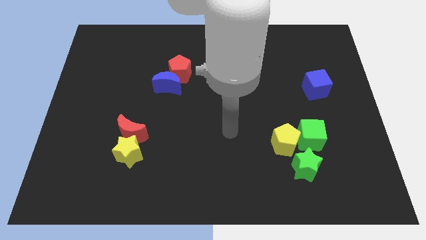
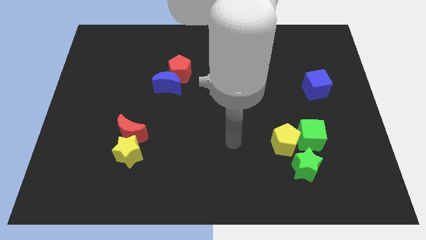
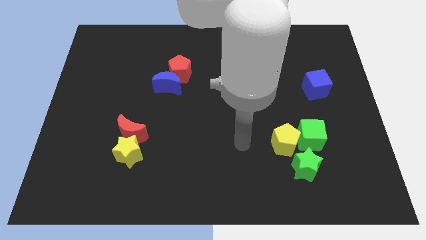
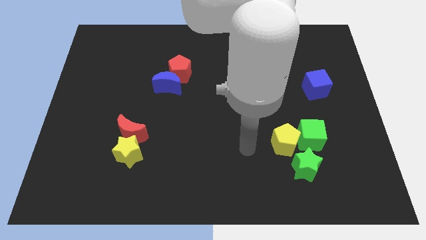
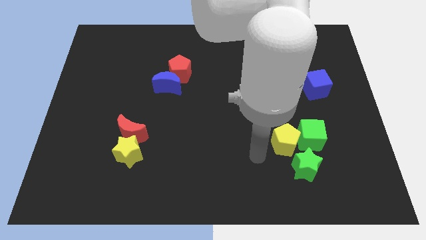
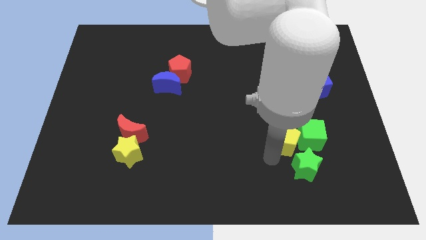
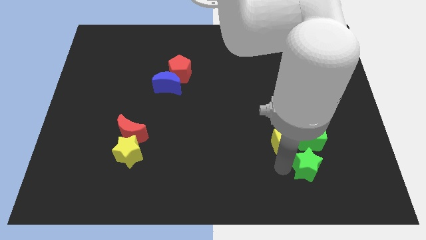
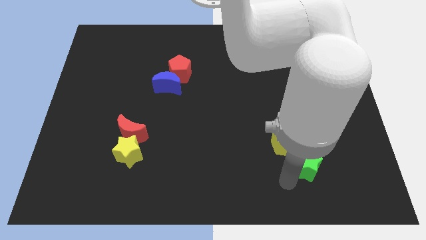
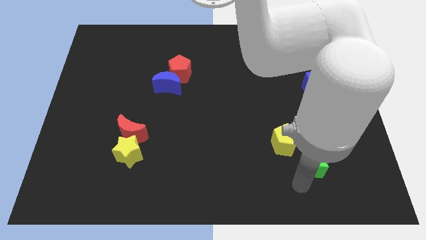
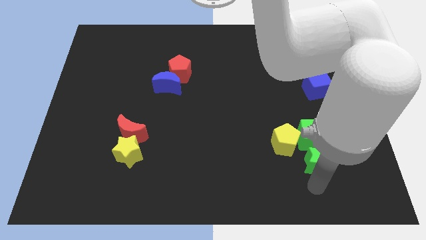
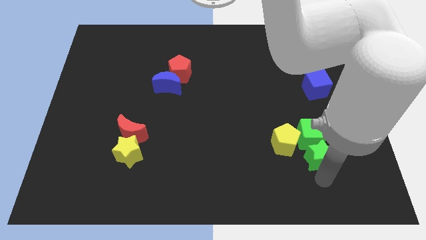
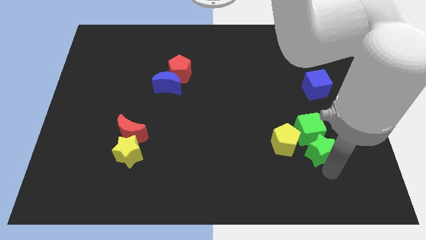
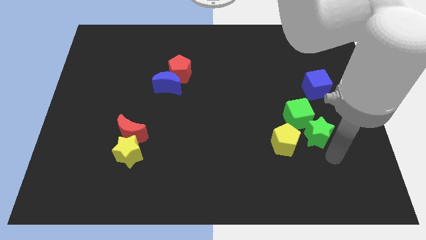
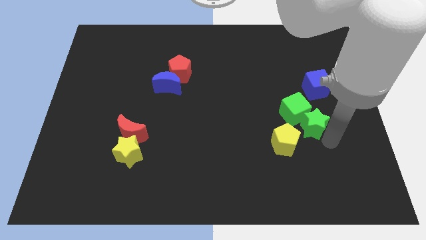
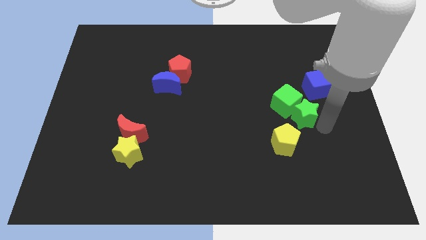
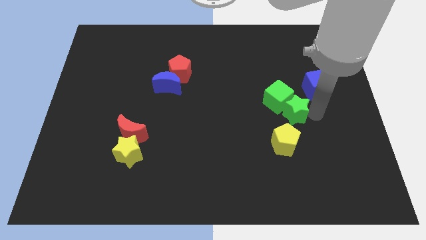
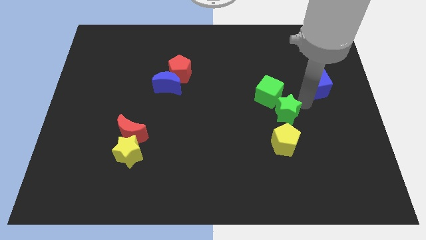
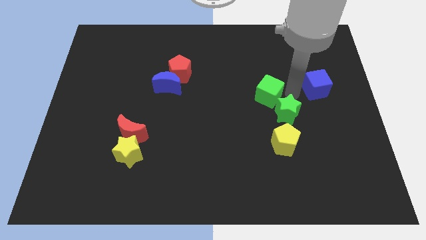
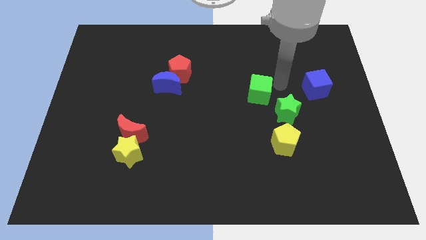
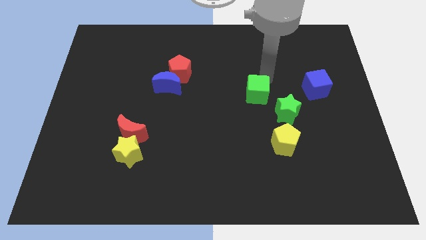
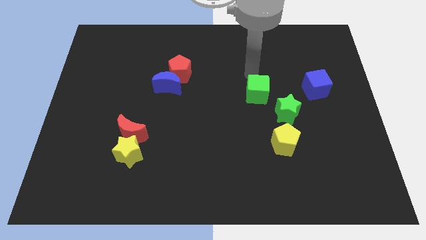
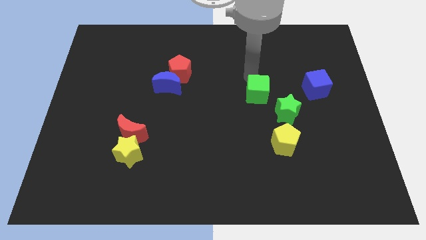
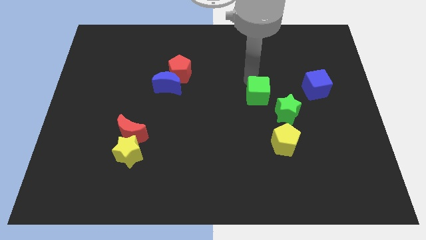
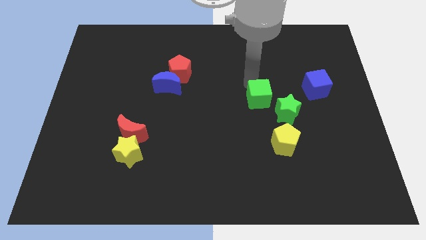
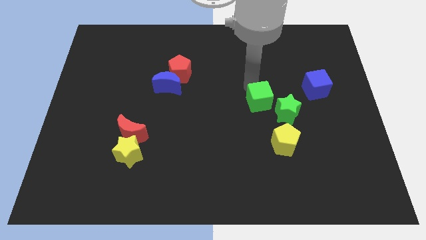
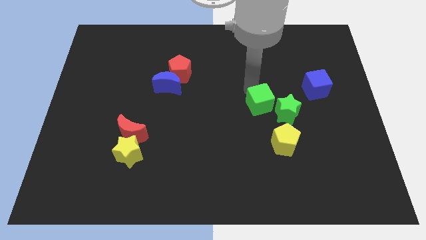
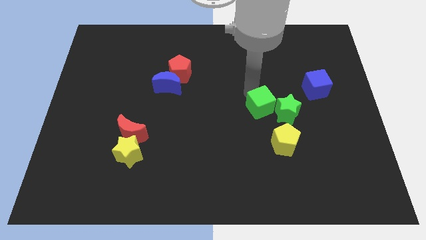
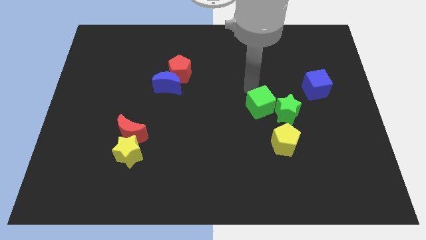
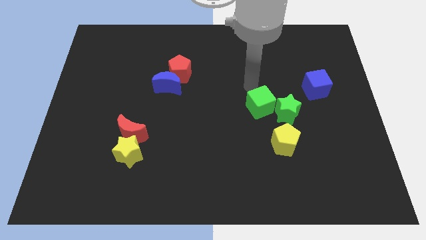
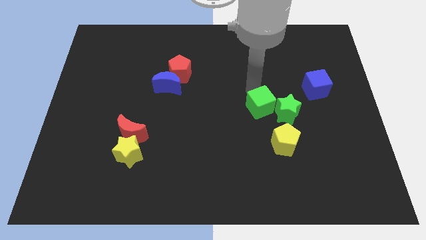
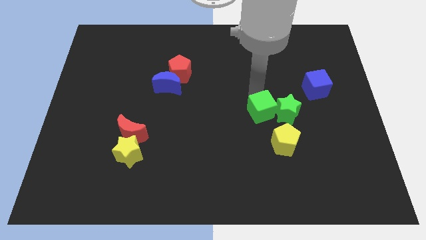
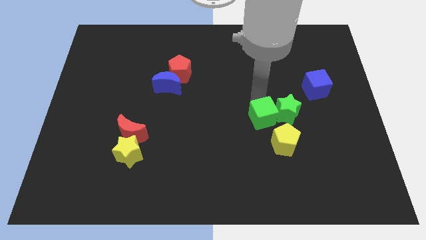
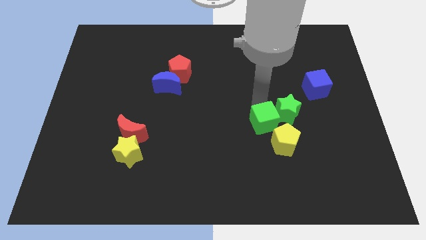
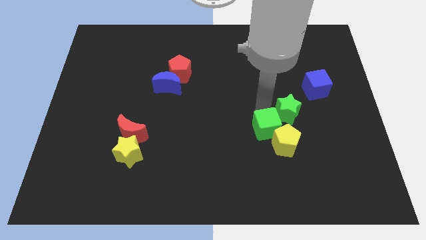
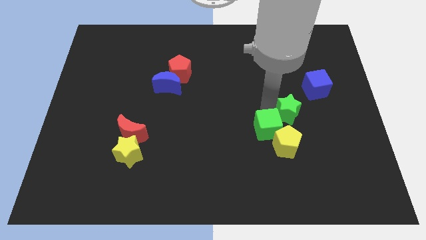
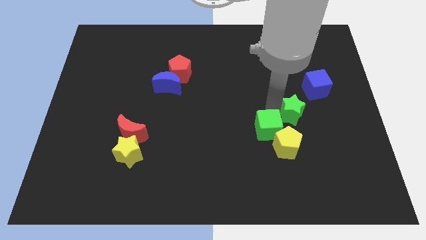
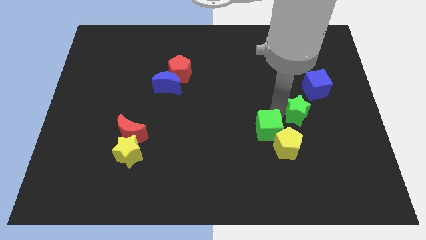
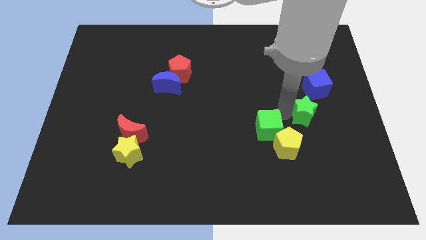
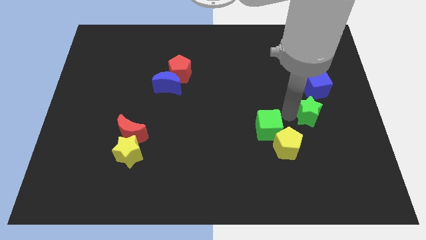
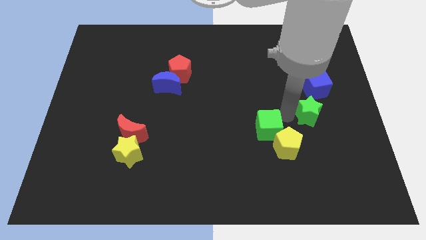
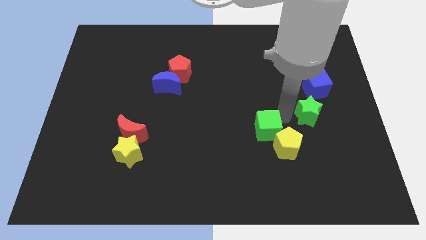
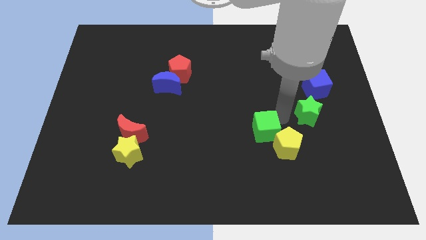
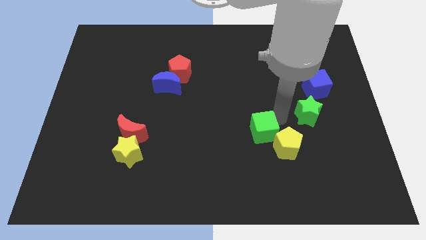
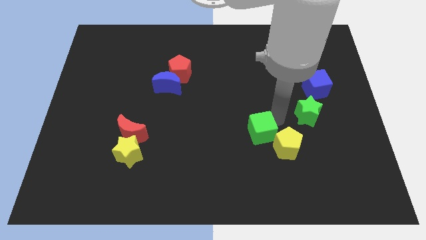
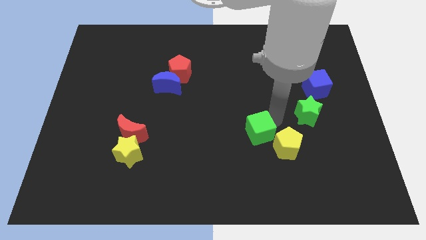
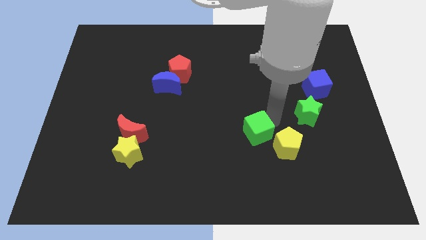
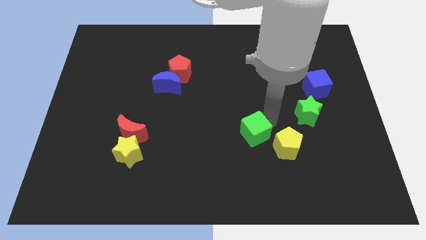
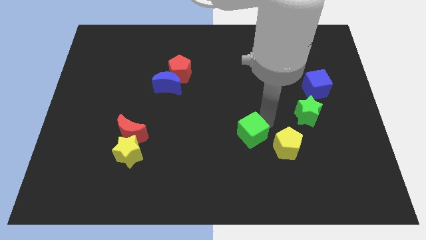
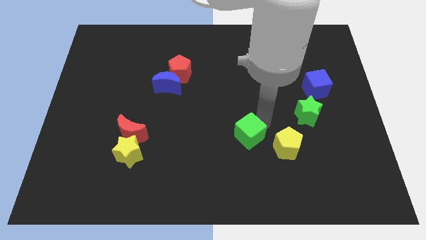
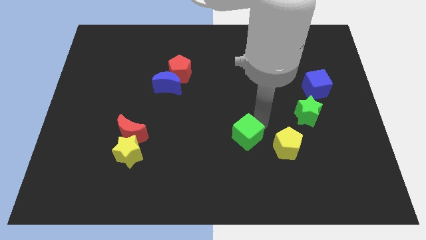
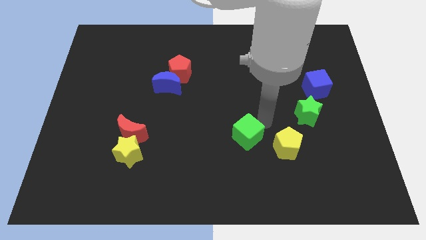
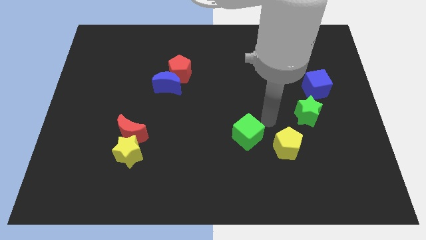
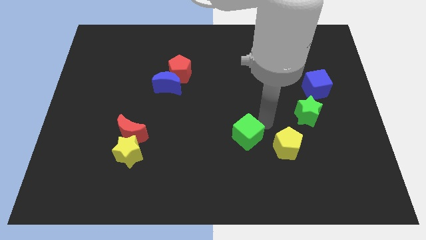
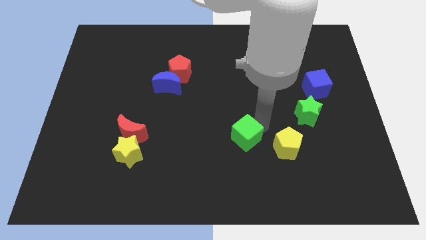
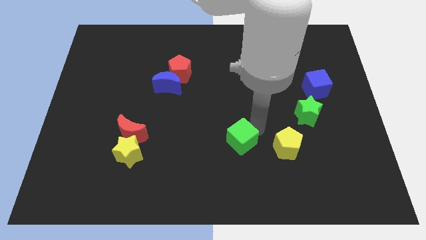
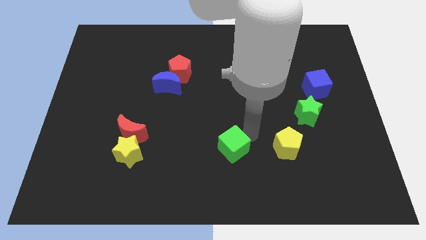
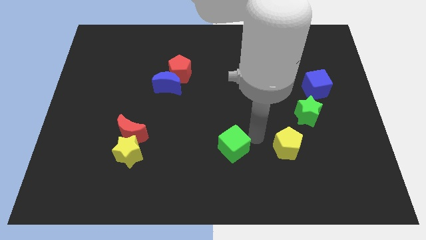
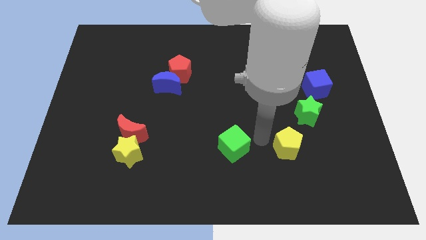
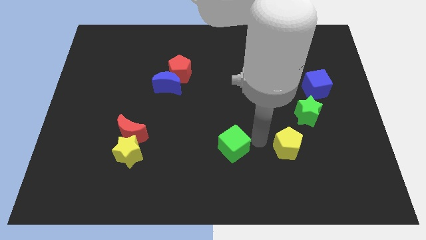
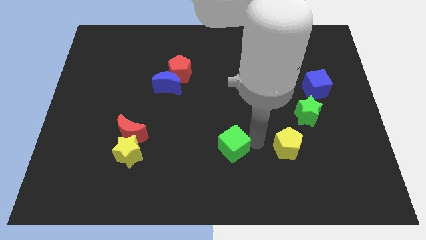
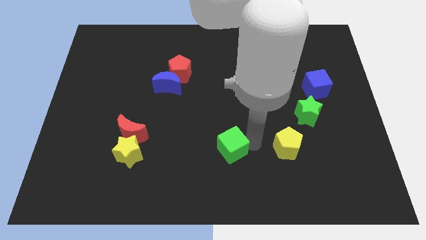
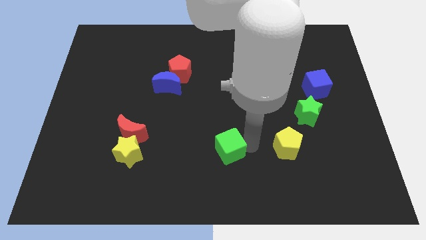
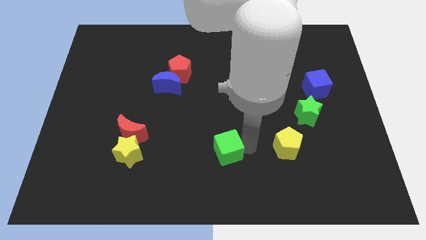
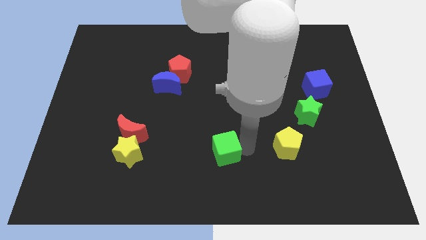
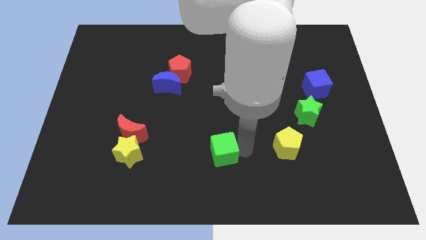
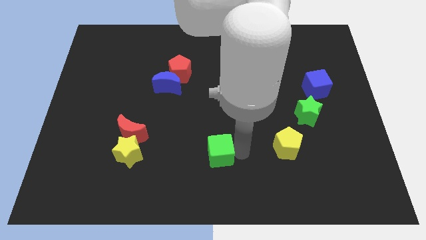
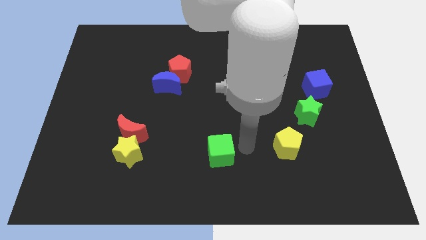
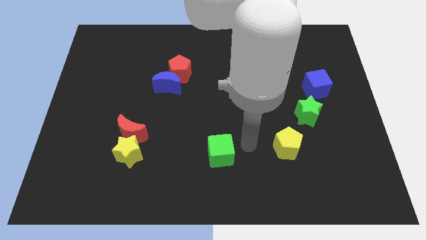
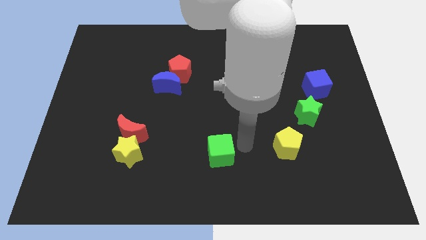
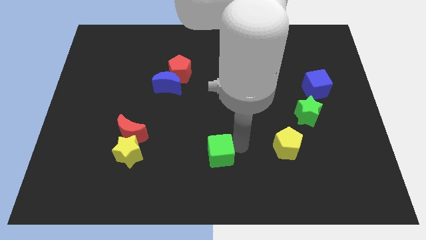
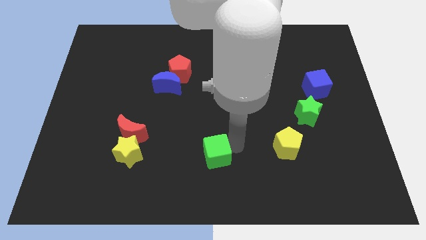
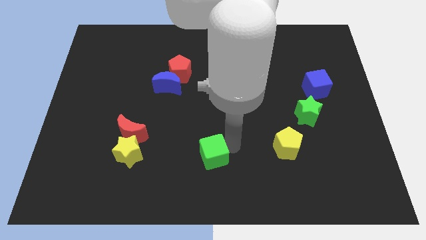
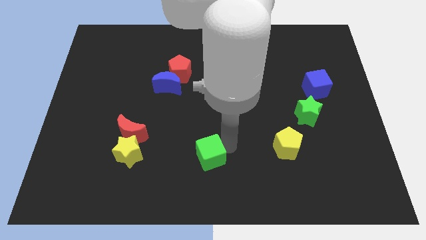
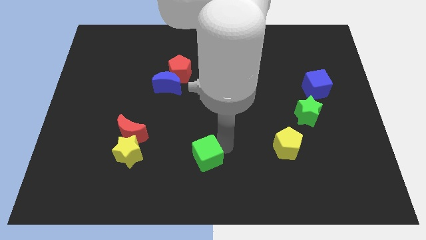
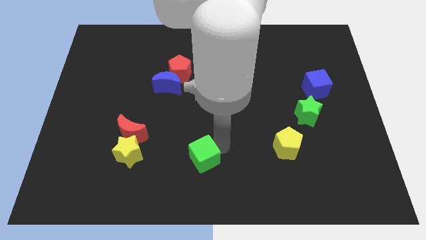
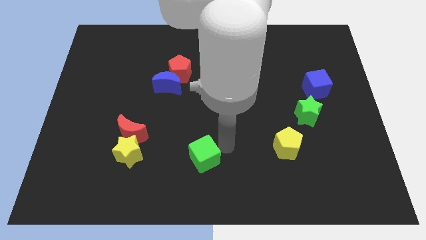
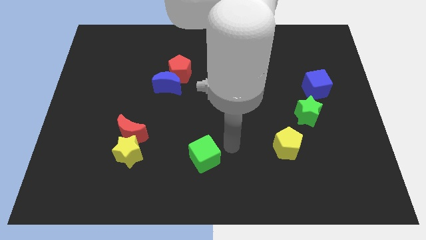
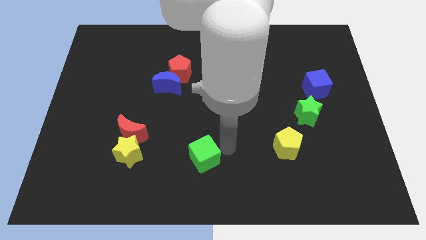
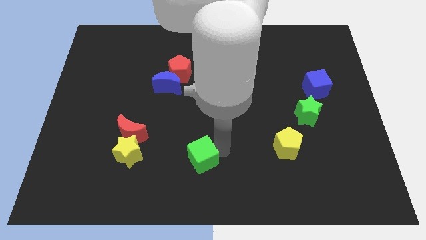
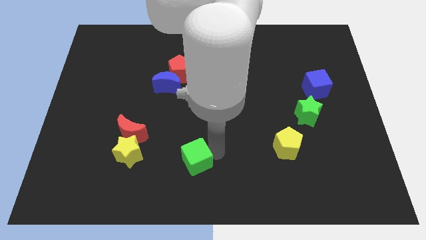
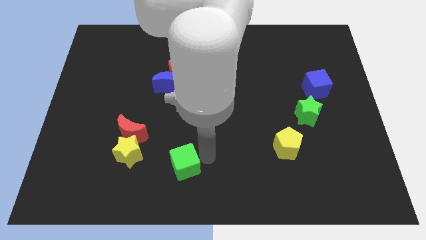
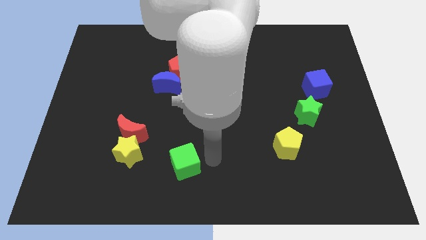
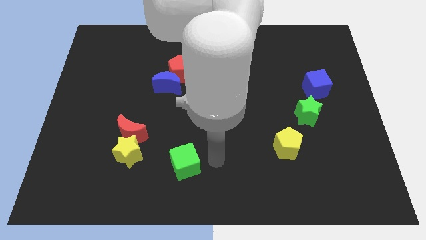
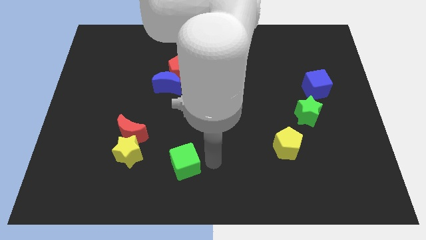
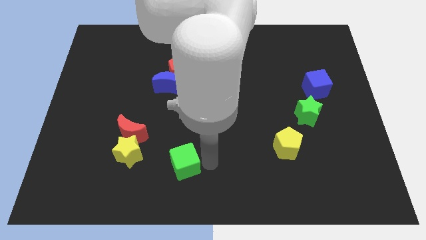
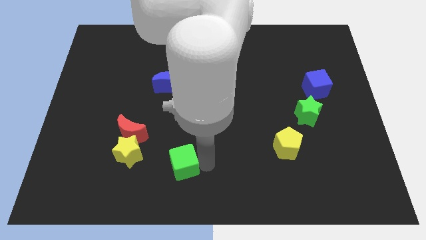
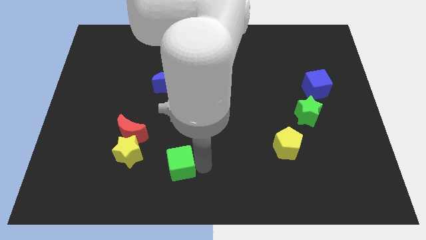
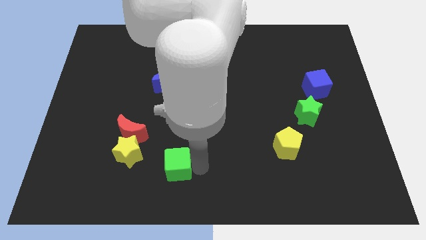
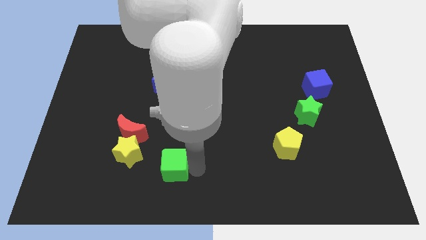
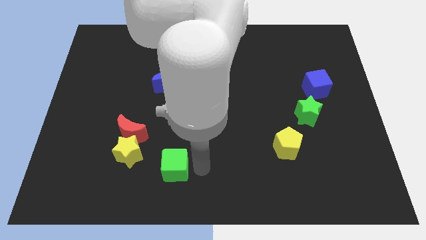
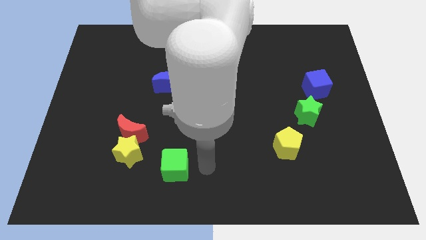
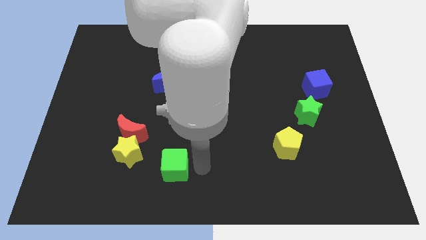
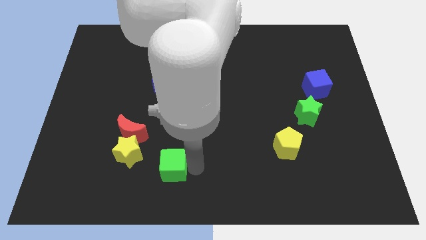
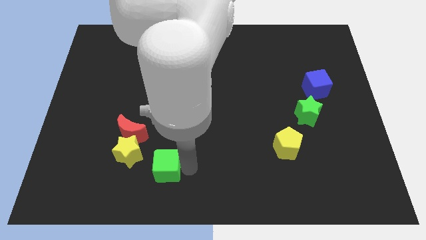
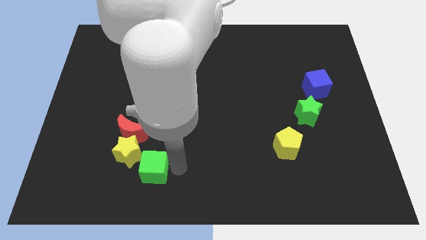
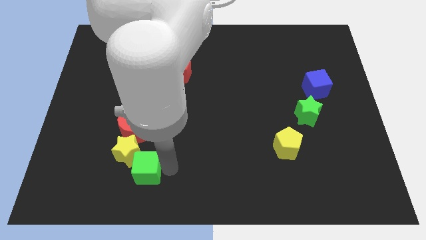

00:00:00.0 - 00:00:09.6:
move the green cube below the red moon
